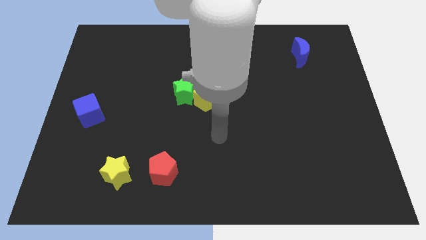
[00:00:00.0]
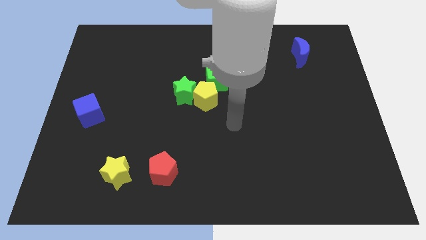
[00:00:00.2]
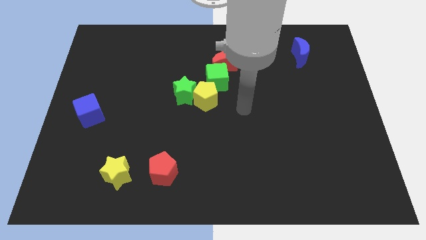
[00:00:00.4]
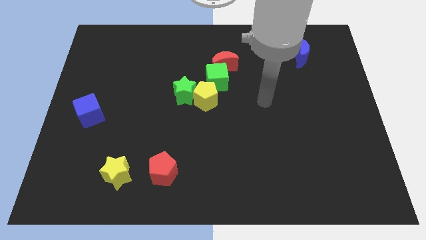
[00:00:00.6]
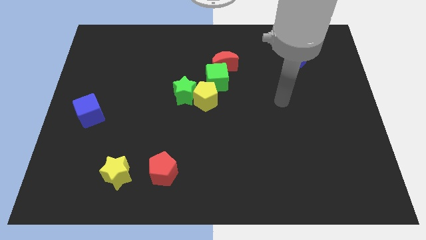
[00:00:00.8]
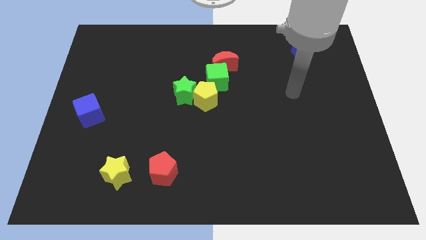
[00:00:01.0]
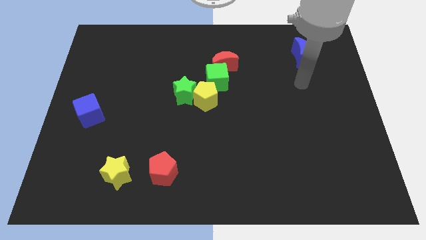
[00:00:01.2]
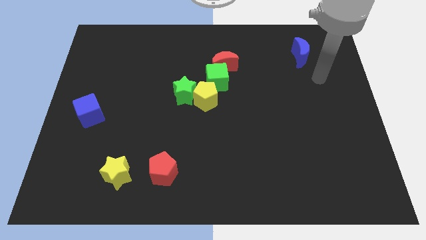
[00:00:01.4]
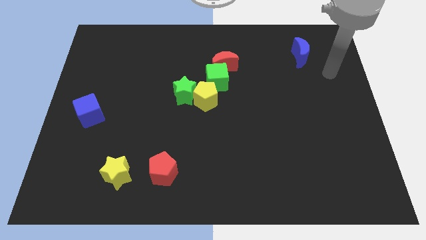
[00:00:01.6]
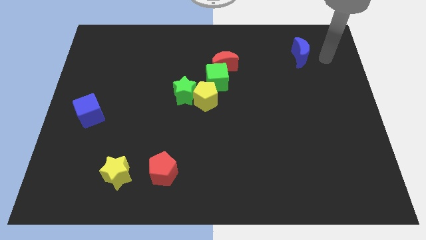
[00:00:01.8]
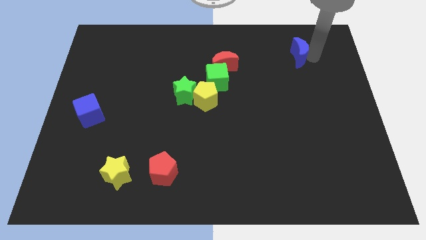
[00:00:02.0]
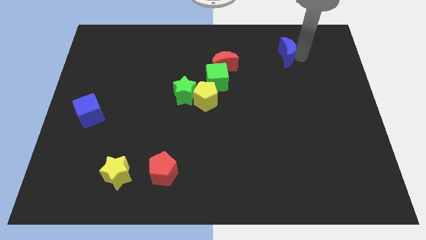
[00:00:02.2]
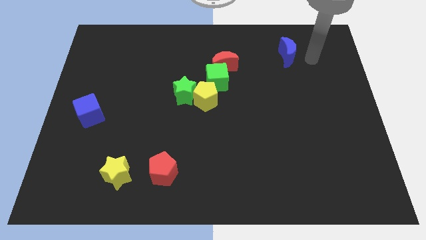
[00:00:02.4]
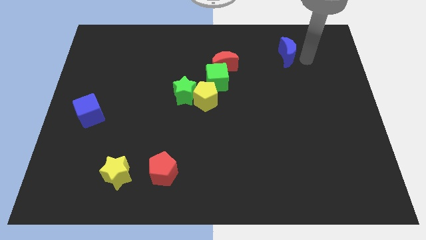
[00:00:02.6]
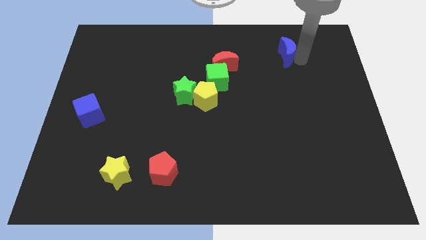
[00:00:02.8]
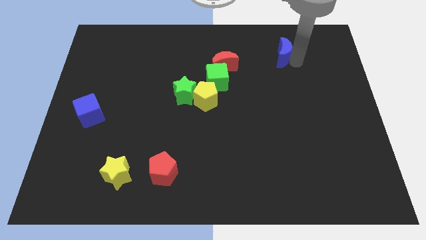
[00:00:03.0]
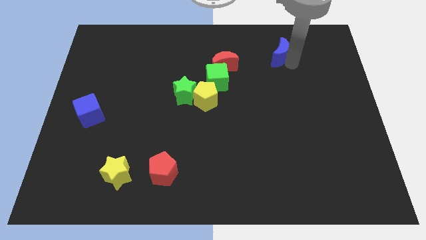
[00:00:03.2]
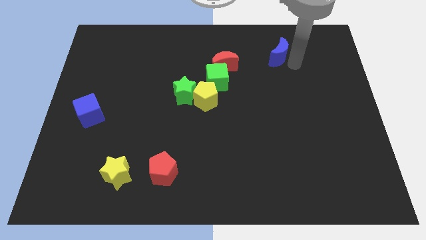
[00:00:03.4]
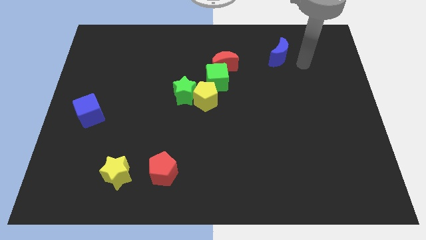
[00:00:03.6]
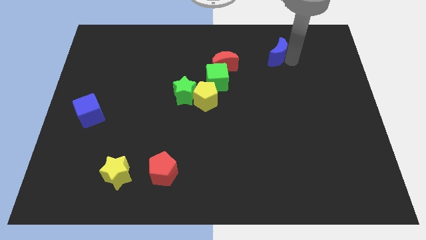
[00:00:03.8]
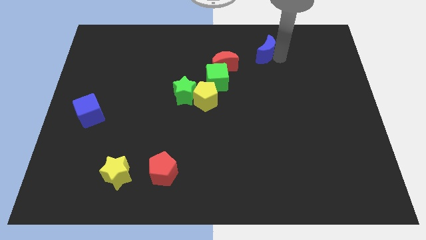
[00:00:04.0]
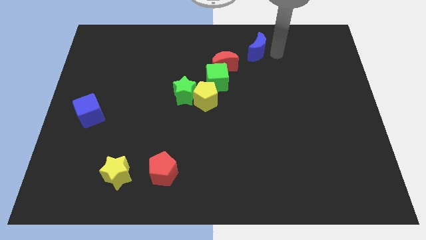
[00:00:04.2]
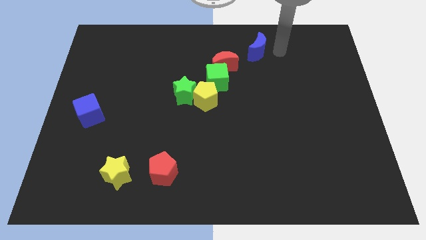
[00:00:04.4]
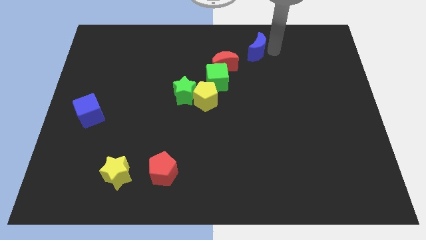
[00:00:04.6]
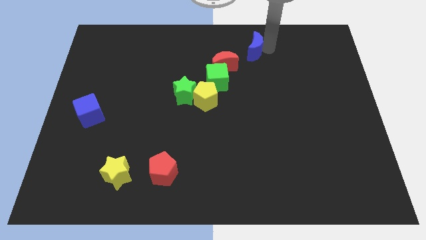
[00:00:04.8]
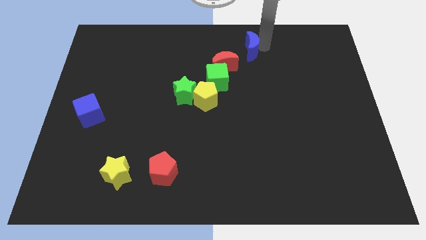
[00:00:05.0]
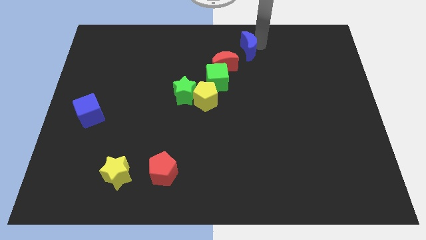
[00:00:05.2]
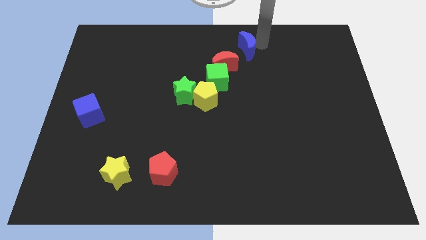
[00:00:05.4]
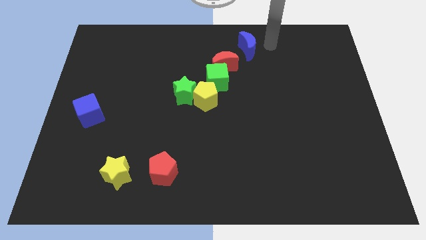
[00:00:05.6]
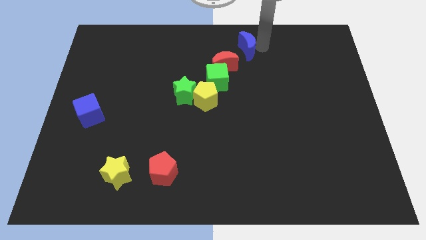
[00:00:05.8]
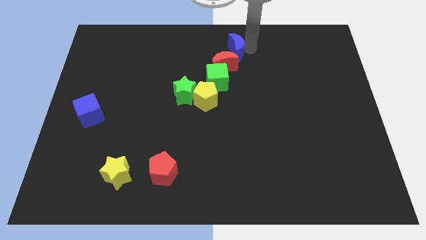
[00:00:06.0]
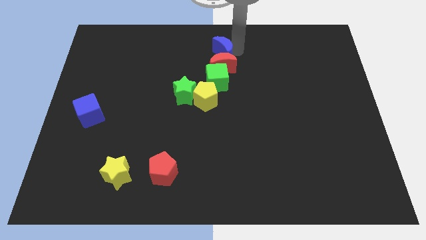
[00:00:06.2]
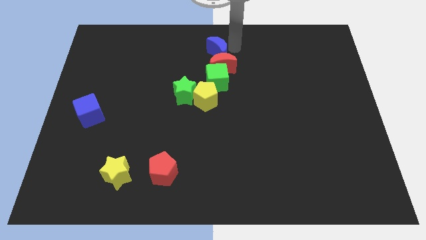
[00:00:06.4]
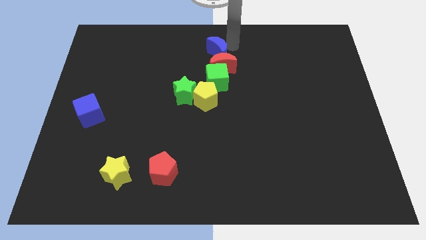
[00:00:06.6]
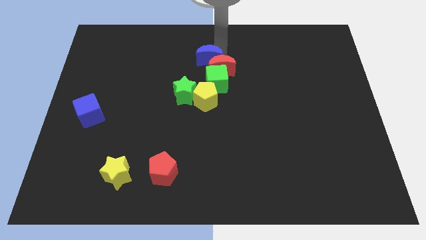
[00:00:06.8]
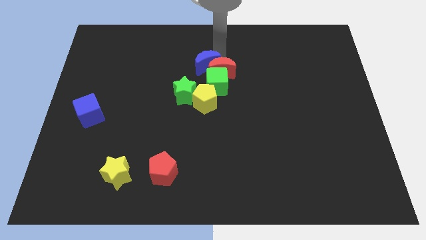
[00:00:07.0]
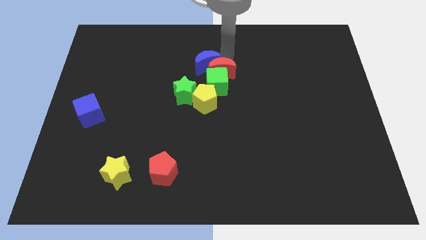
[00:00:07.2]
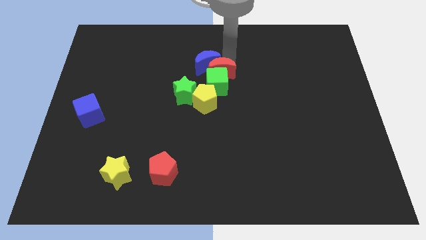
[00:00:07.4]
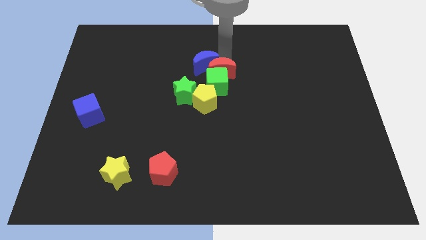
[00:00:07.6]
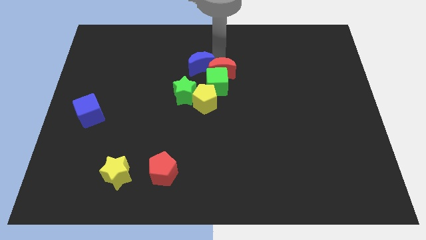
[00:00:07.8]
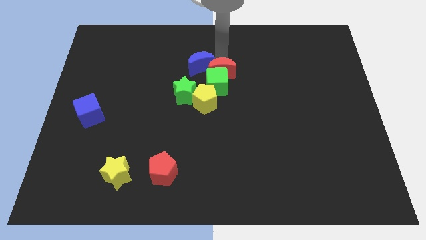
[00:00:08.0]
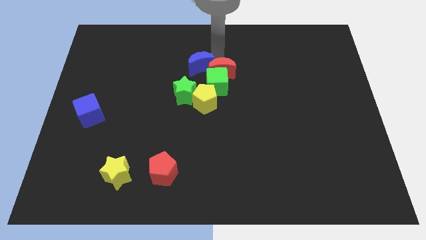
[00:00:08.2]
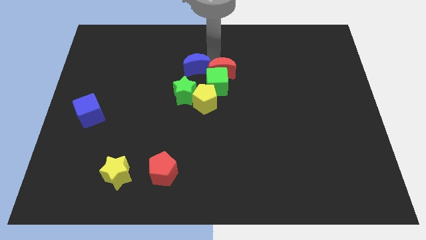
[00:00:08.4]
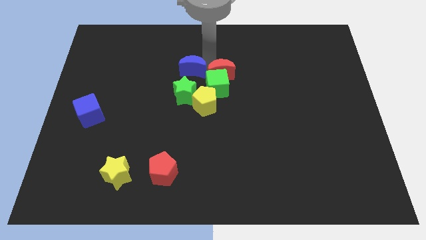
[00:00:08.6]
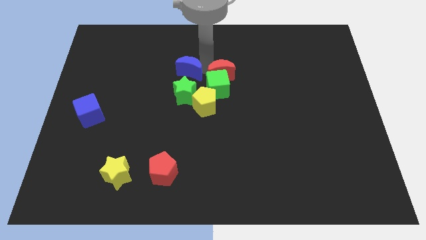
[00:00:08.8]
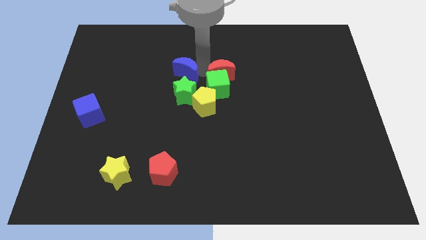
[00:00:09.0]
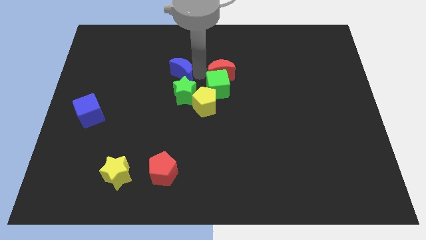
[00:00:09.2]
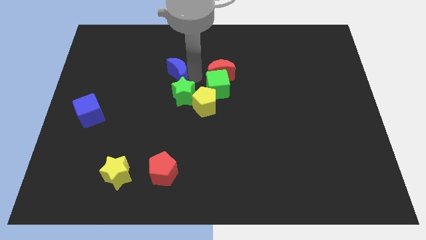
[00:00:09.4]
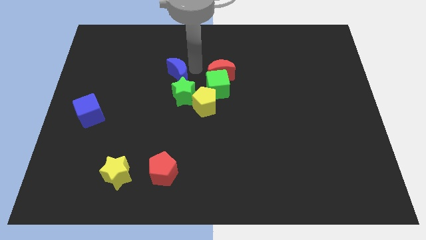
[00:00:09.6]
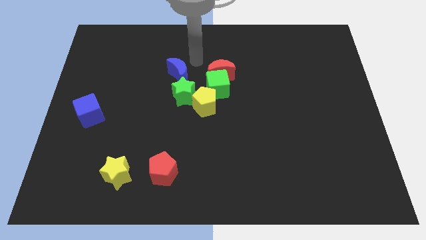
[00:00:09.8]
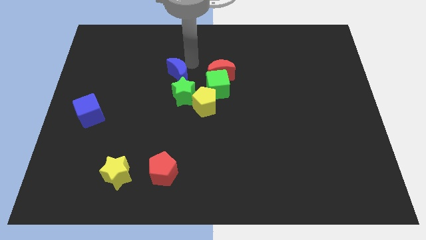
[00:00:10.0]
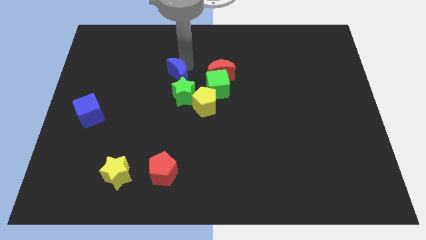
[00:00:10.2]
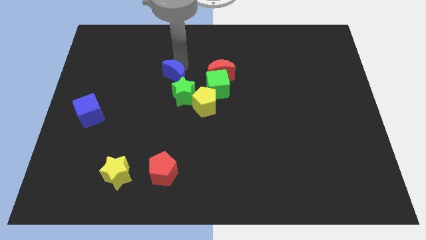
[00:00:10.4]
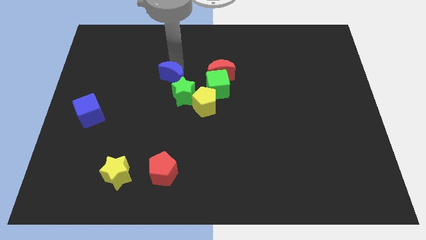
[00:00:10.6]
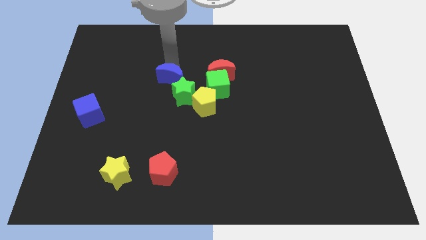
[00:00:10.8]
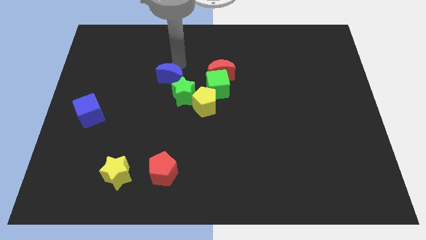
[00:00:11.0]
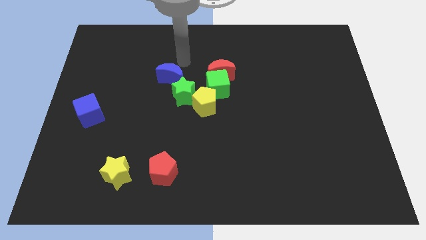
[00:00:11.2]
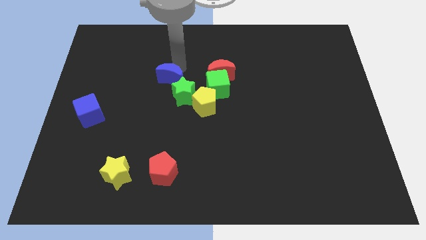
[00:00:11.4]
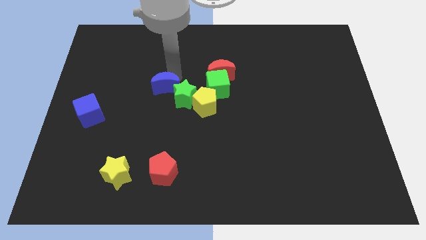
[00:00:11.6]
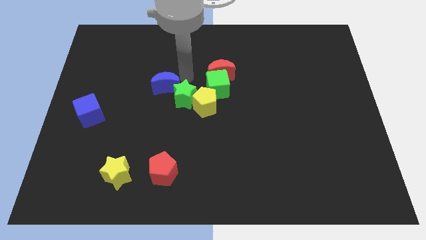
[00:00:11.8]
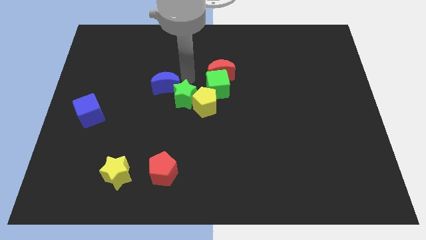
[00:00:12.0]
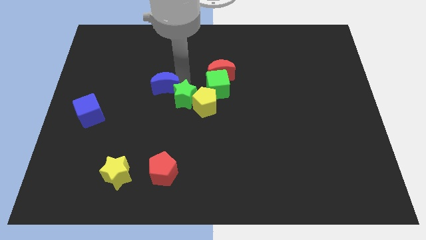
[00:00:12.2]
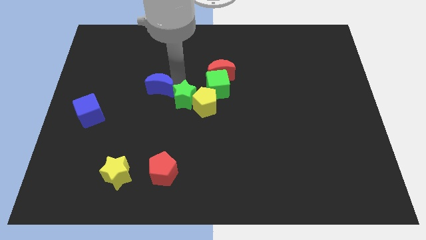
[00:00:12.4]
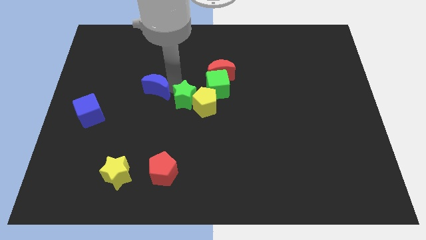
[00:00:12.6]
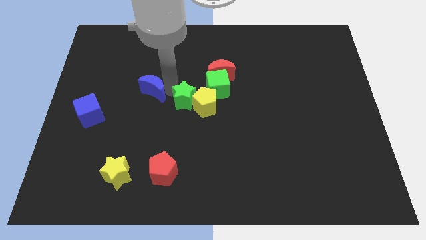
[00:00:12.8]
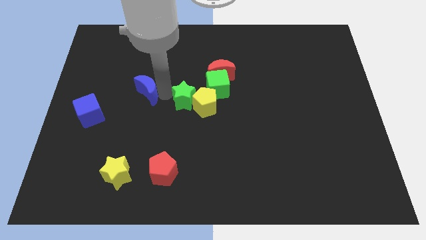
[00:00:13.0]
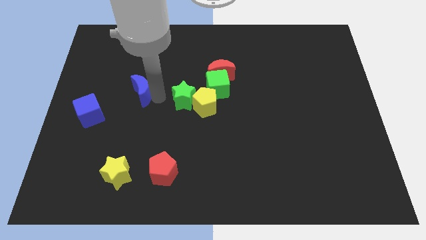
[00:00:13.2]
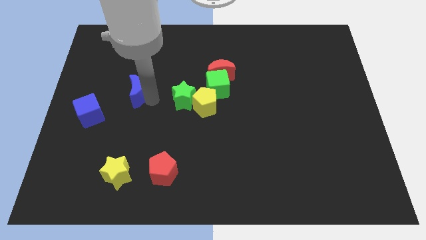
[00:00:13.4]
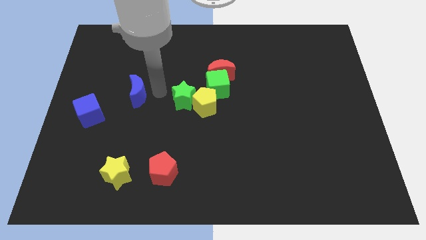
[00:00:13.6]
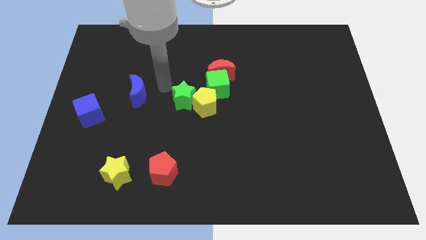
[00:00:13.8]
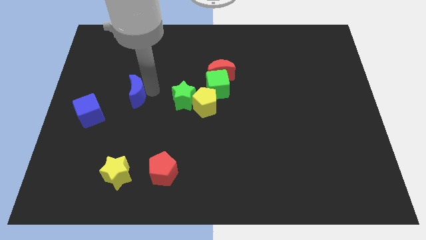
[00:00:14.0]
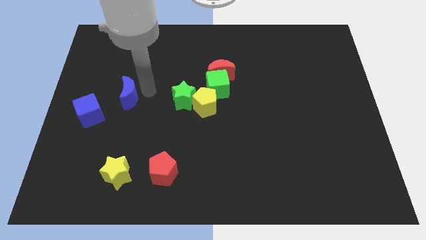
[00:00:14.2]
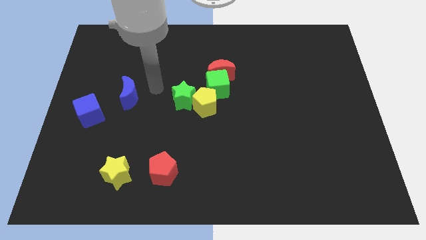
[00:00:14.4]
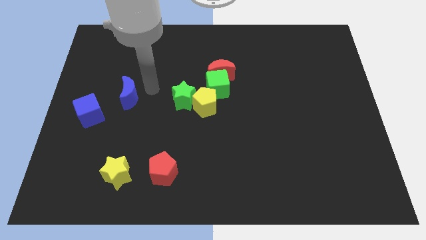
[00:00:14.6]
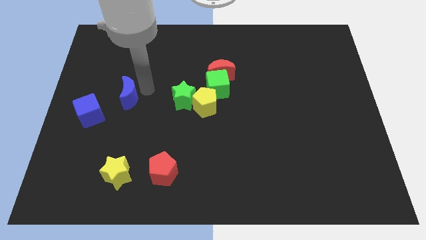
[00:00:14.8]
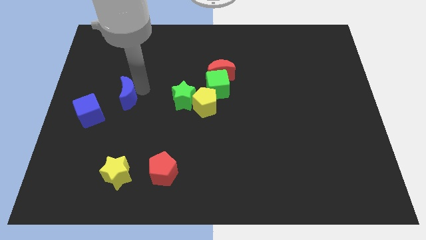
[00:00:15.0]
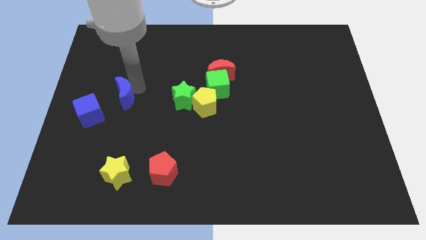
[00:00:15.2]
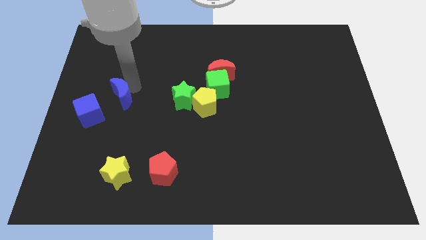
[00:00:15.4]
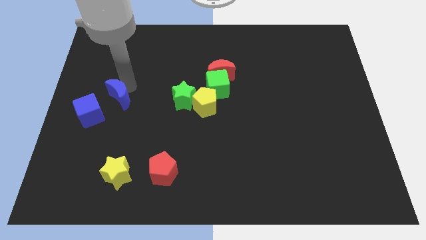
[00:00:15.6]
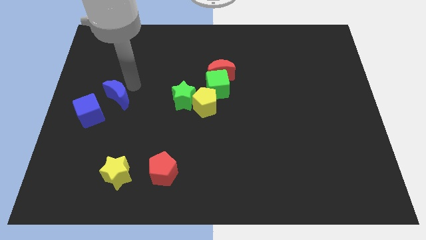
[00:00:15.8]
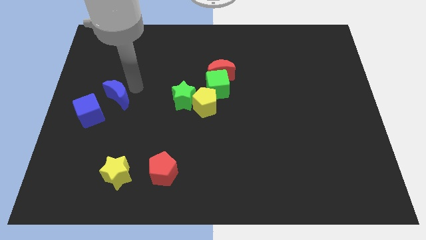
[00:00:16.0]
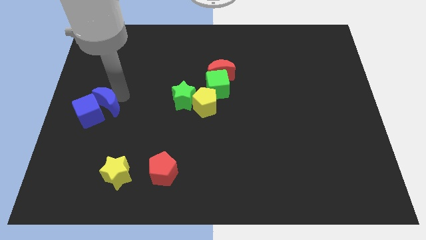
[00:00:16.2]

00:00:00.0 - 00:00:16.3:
push the blue moon next to the blue cube
